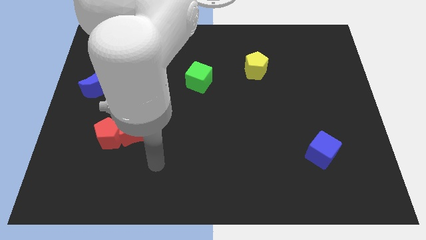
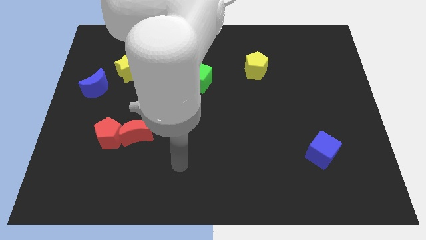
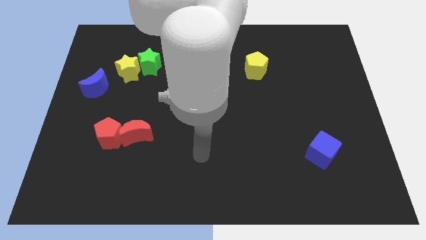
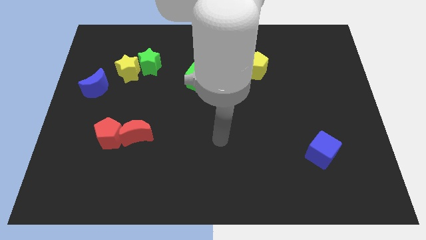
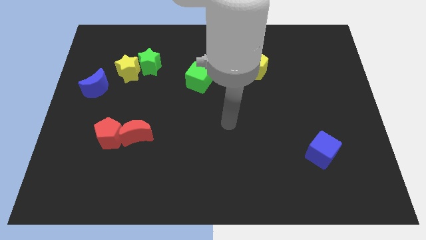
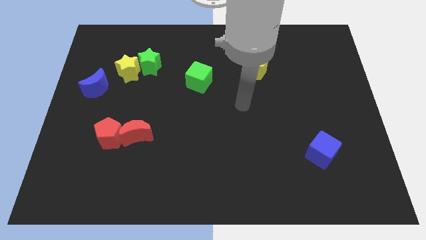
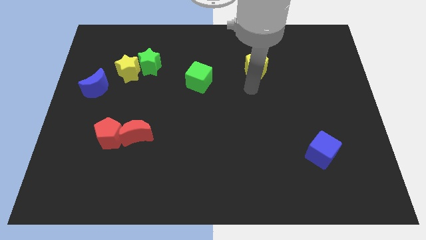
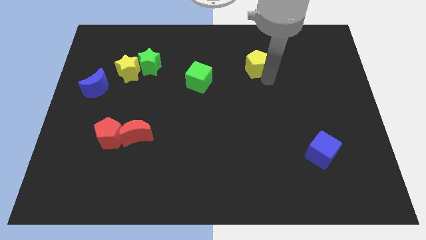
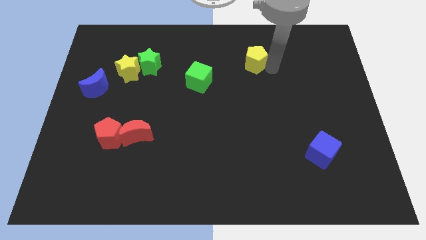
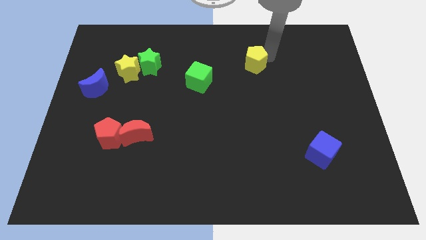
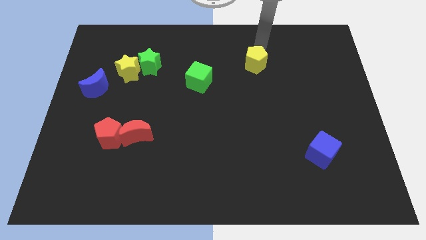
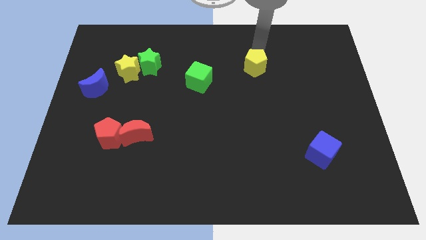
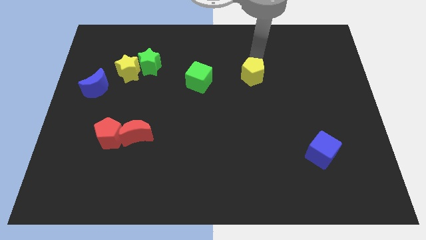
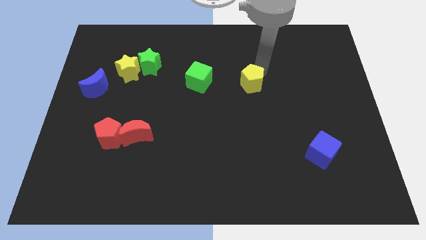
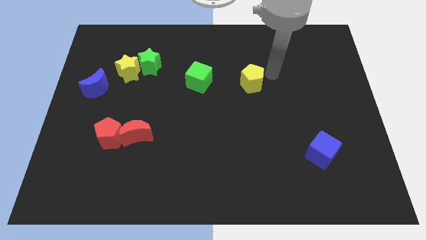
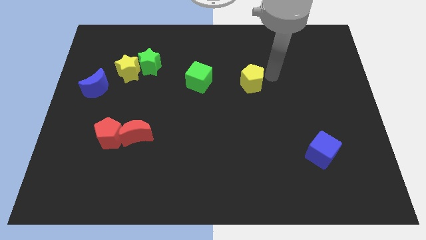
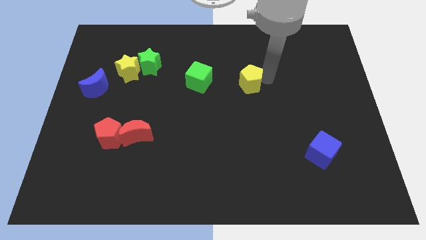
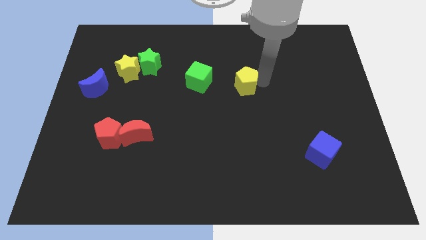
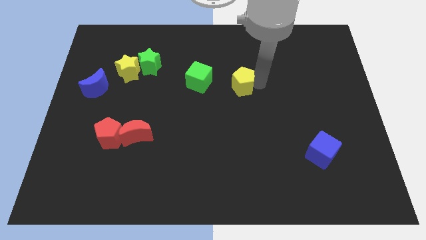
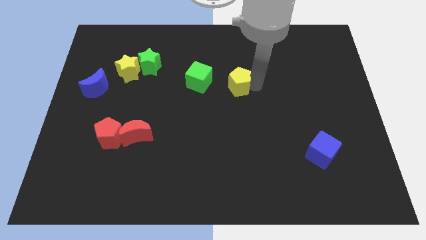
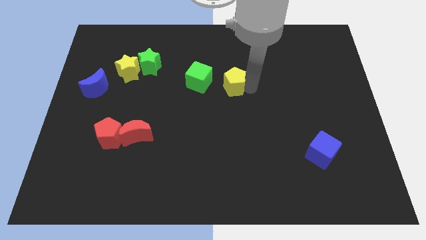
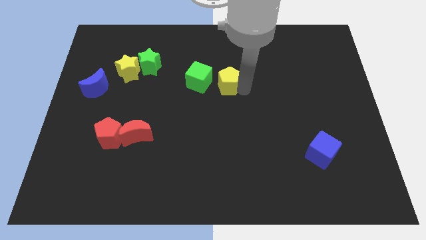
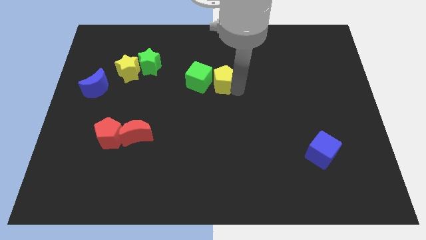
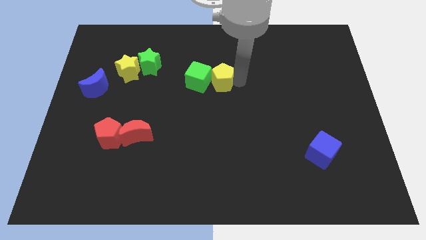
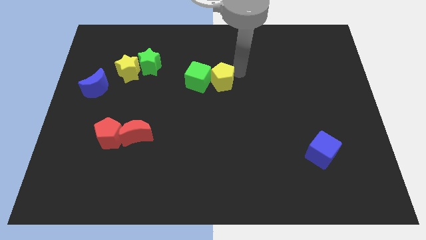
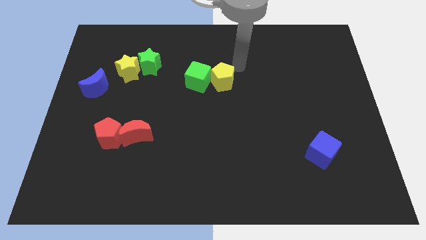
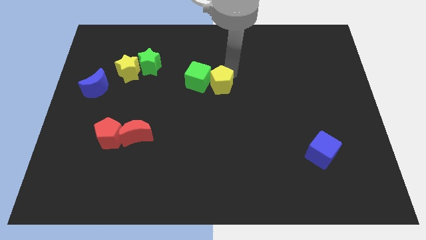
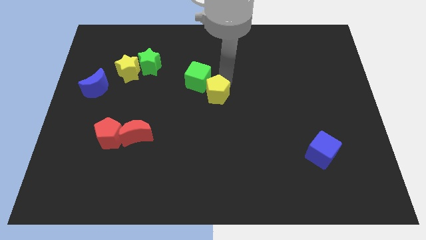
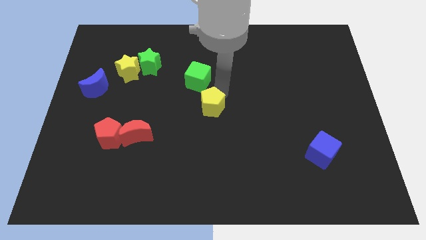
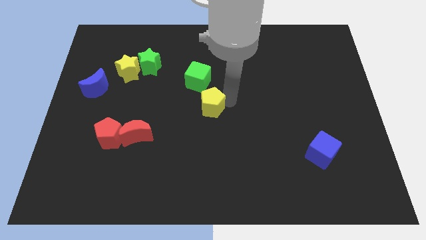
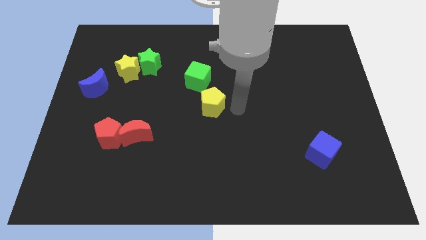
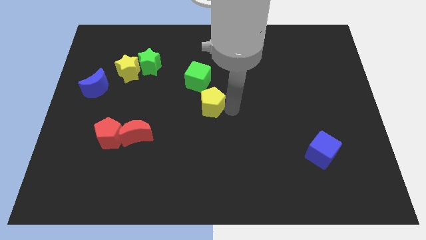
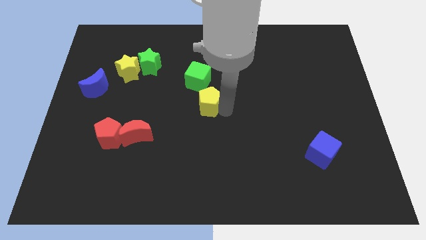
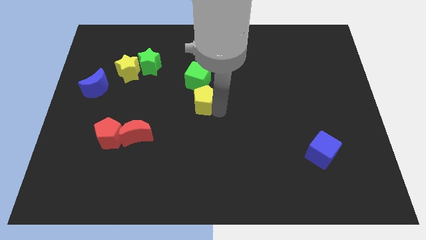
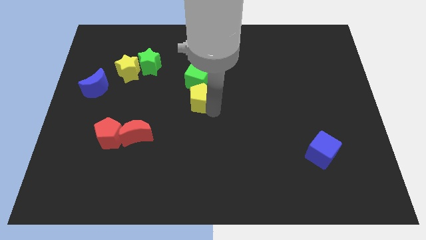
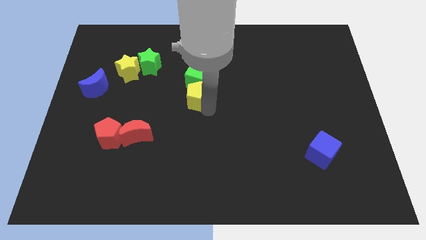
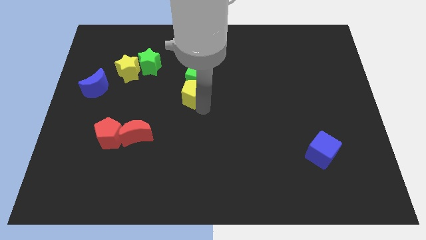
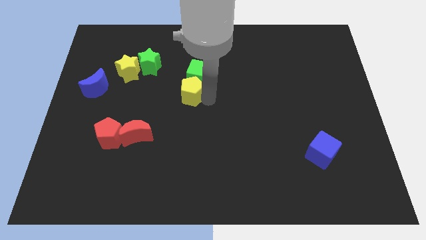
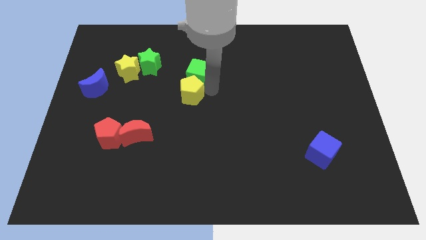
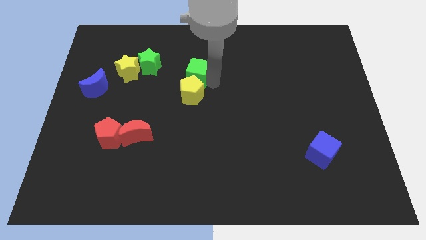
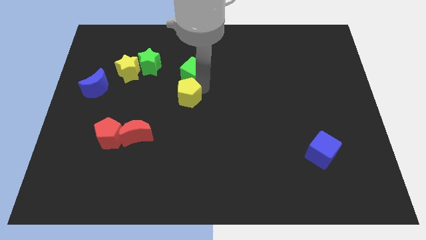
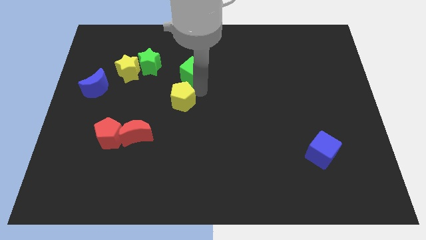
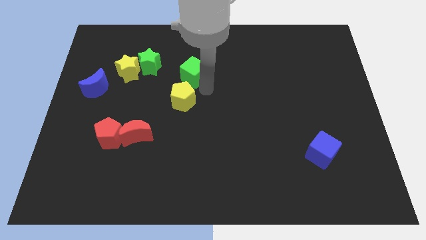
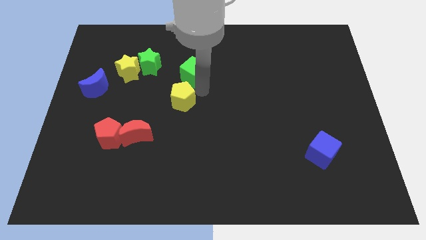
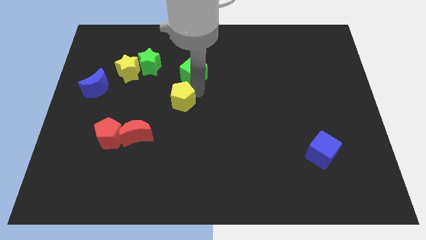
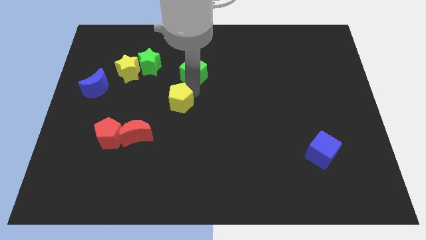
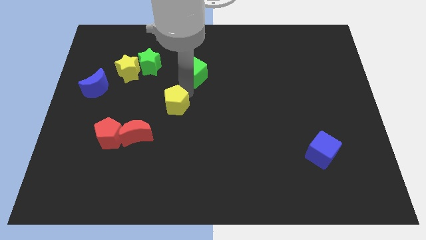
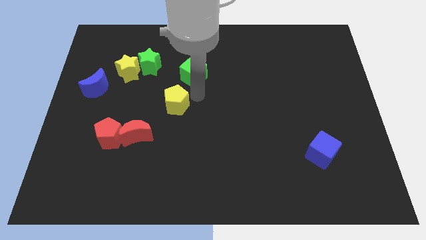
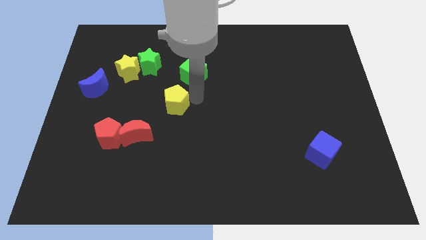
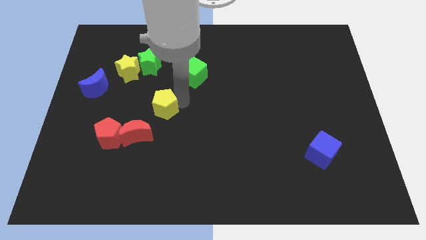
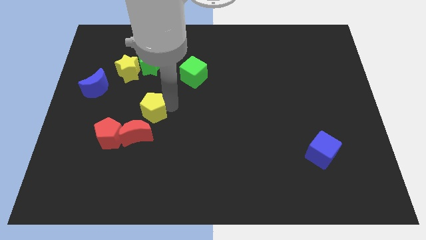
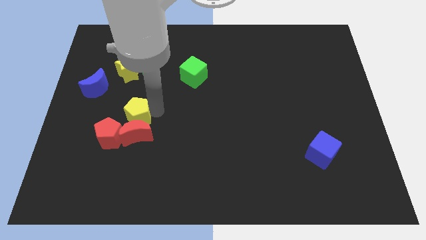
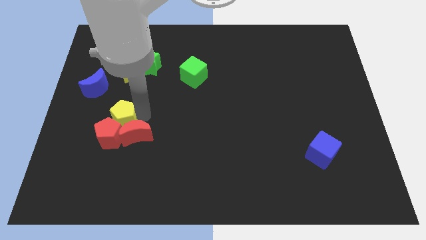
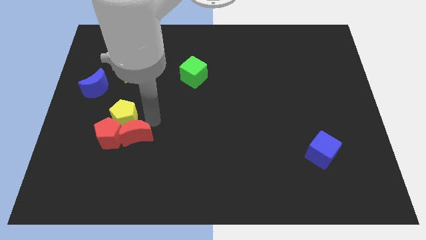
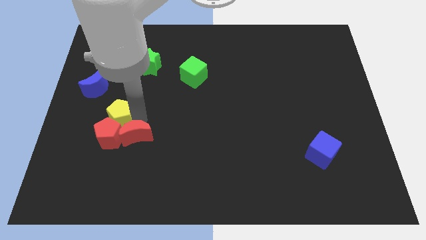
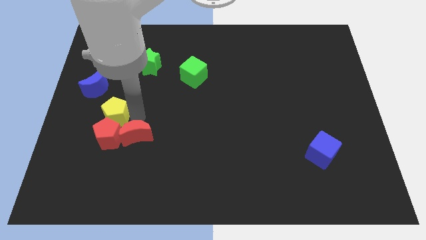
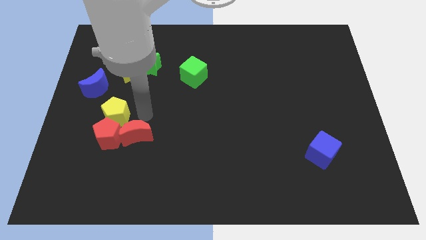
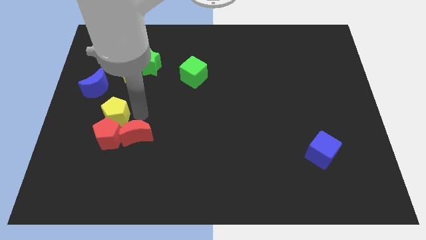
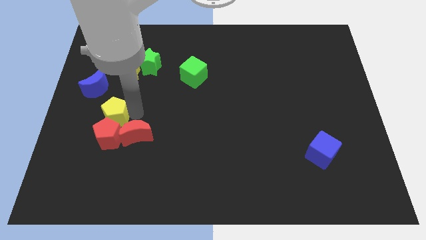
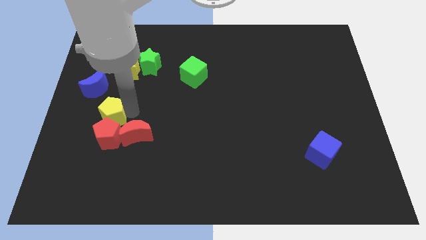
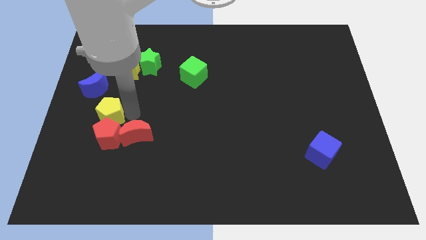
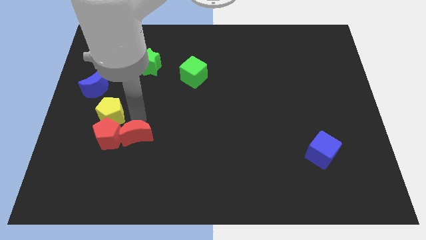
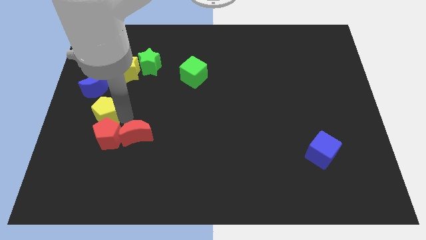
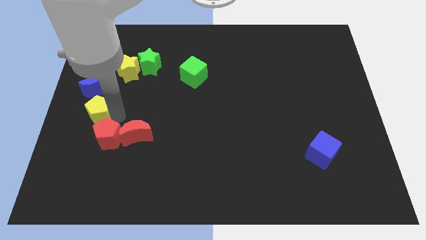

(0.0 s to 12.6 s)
slide the yellow pentagon to the left side

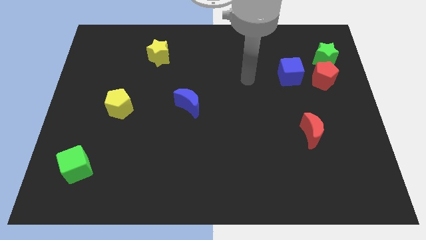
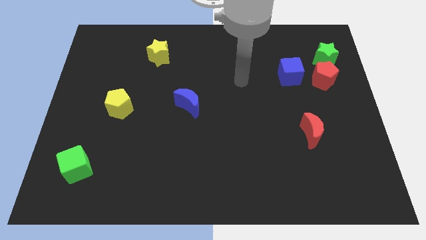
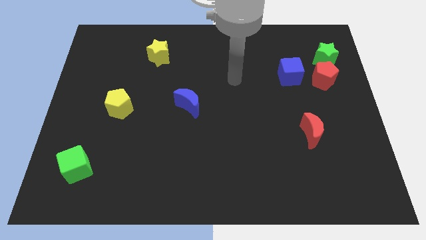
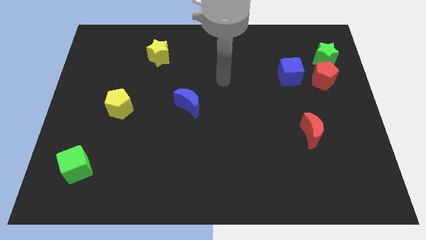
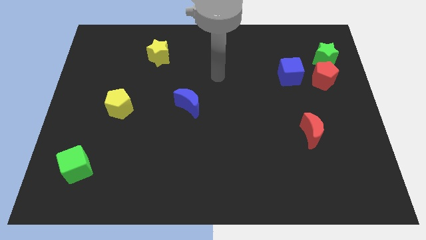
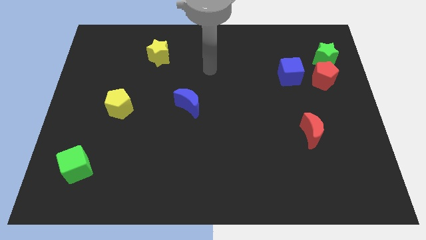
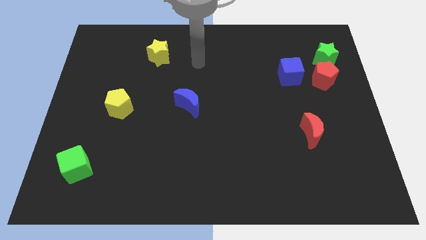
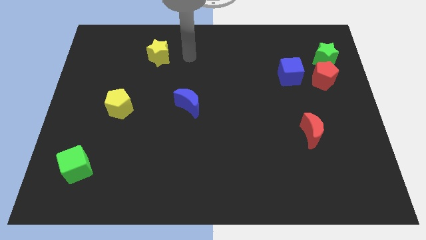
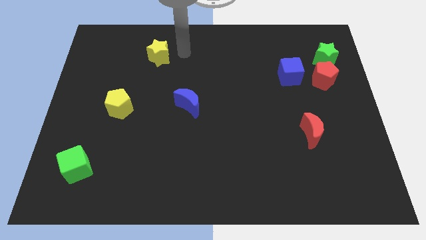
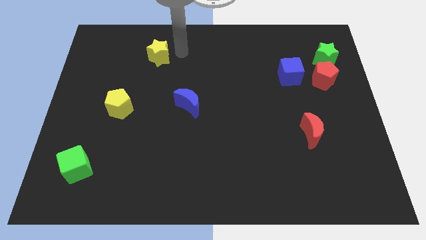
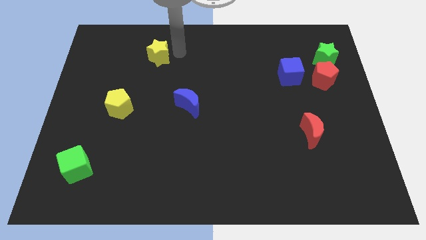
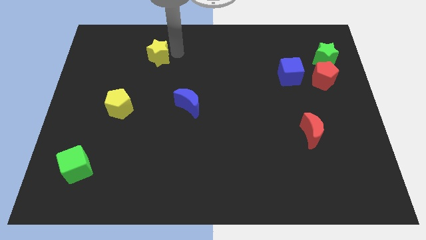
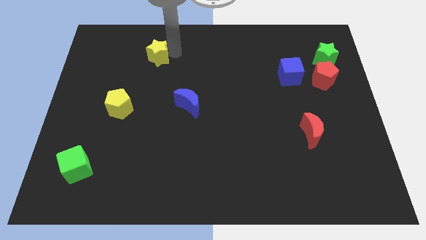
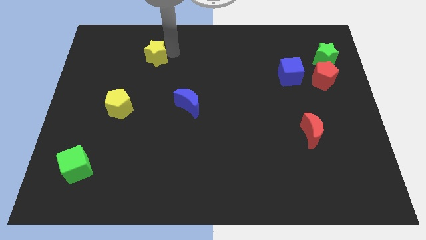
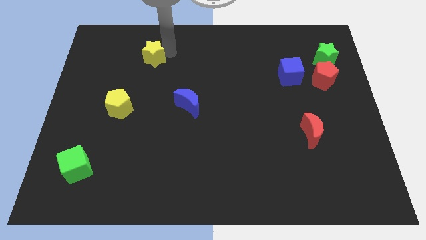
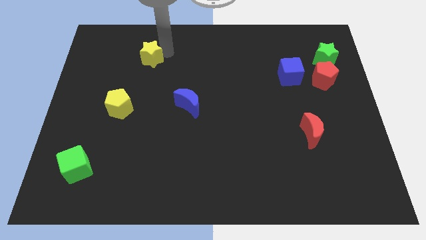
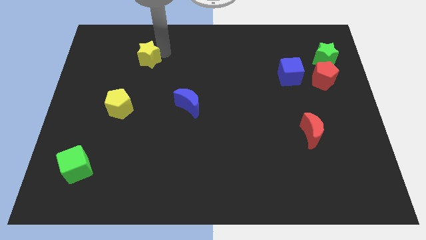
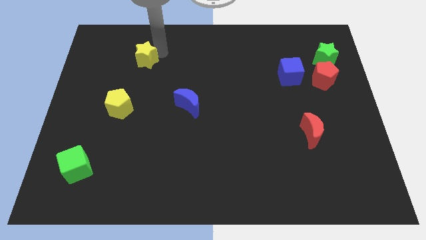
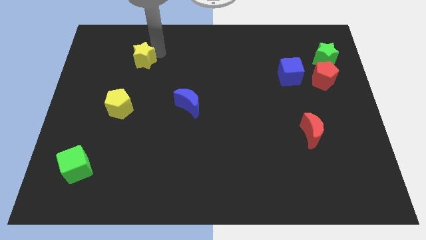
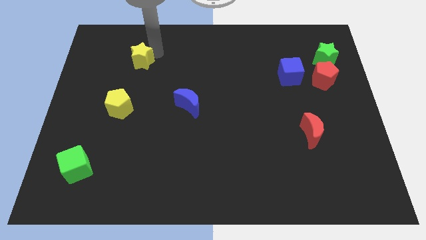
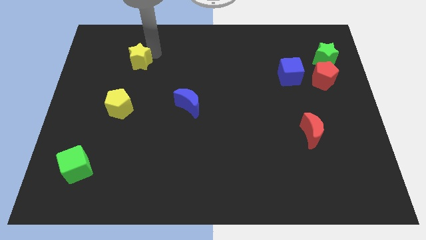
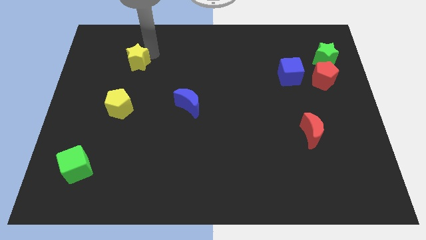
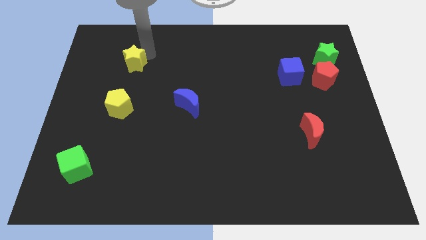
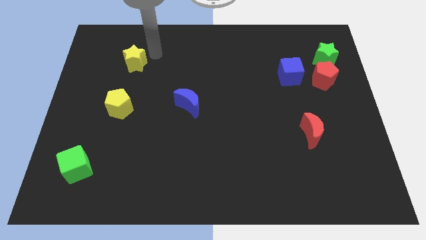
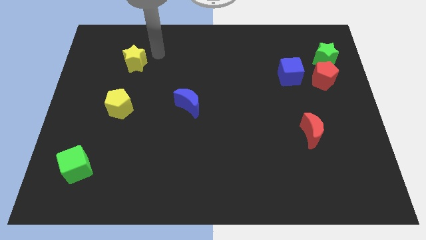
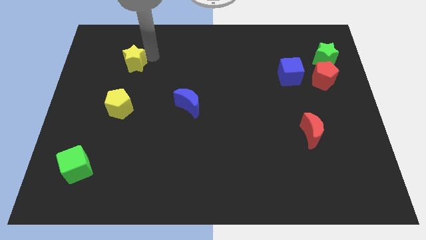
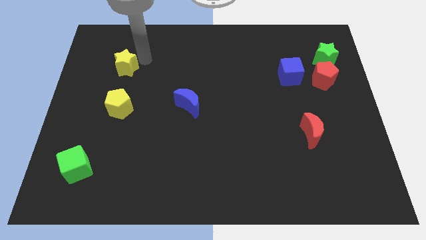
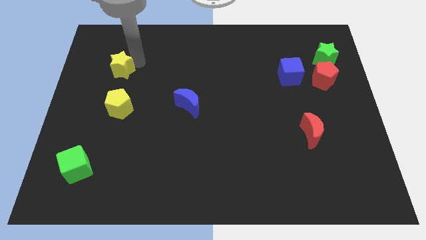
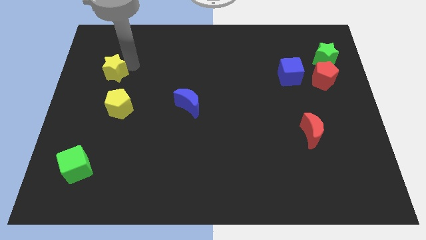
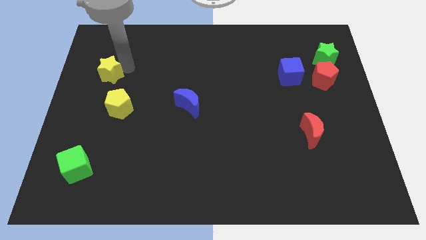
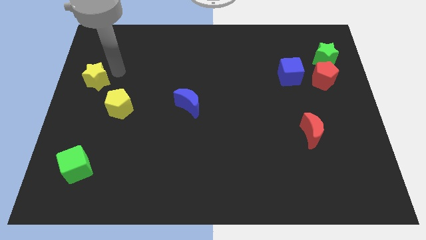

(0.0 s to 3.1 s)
move the yellow star to the center left
